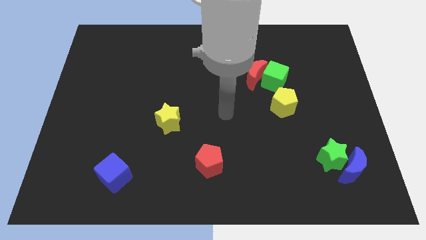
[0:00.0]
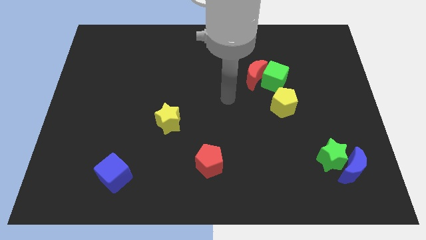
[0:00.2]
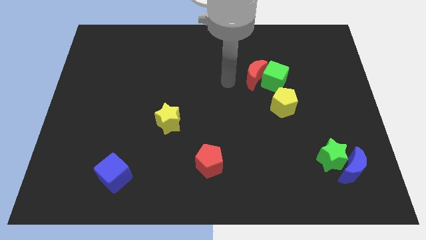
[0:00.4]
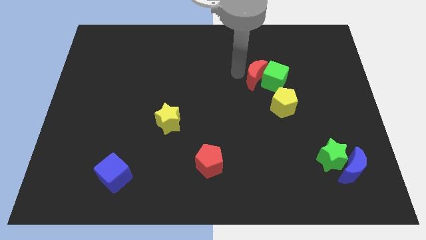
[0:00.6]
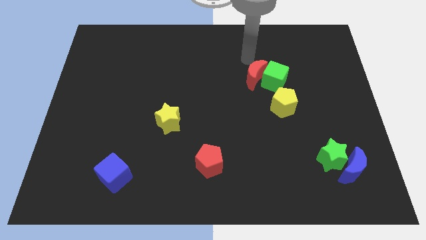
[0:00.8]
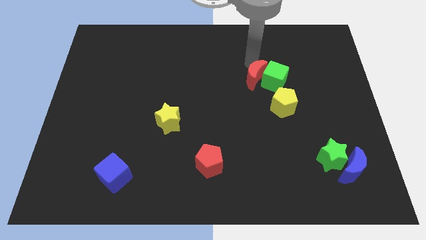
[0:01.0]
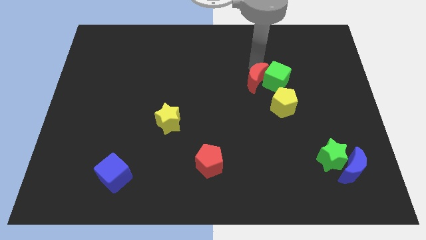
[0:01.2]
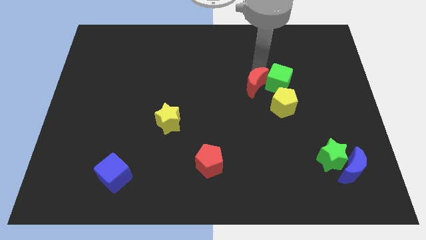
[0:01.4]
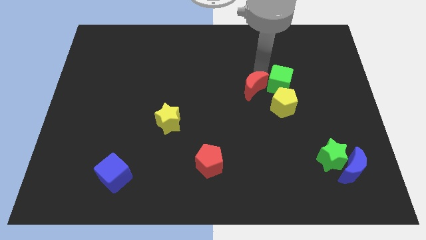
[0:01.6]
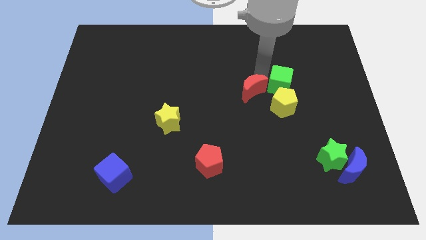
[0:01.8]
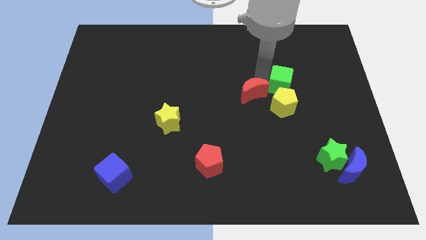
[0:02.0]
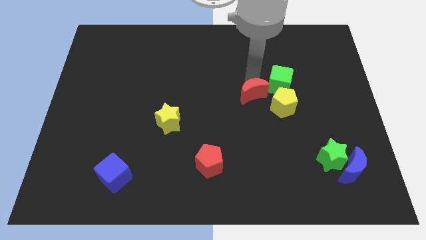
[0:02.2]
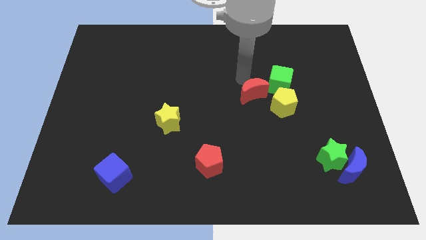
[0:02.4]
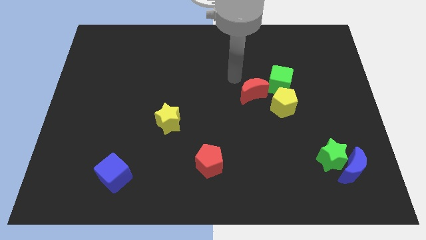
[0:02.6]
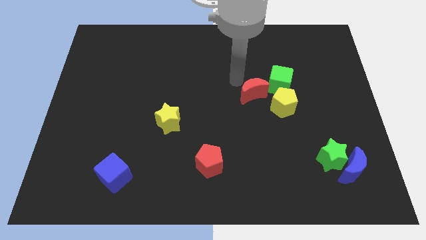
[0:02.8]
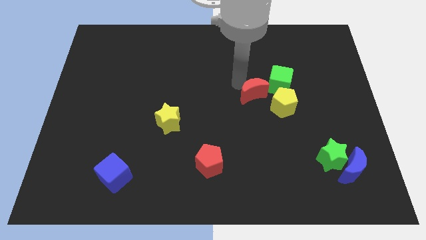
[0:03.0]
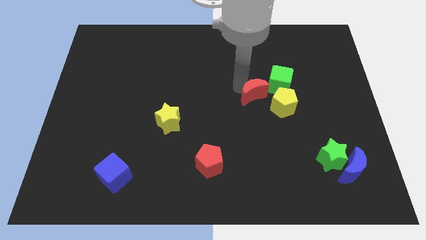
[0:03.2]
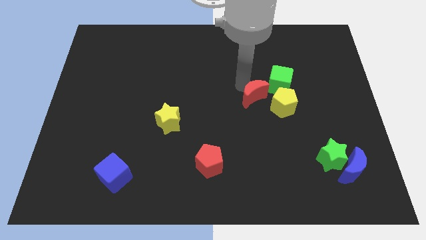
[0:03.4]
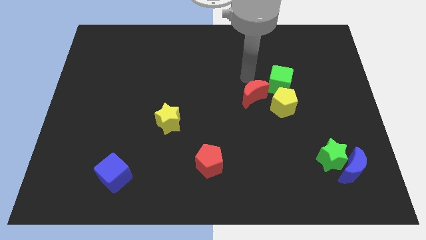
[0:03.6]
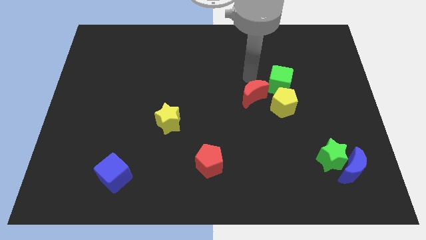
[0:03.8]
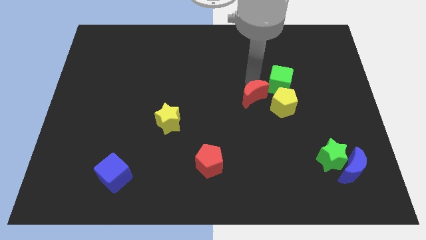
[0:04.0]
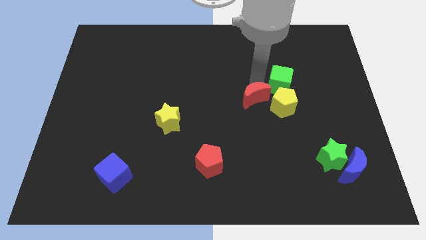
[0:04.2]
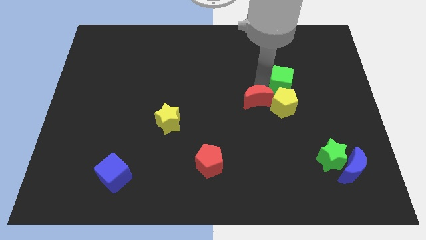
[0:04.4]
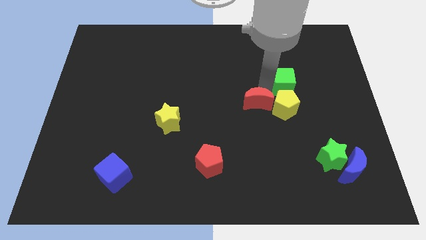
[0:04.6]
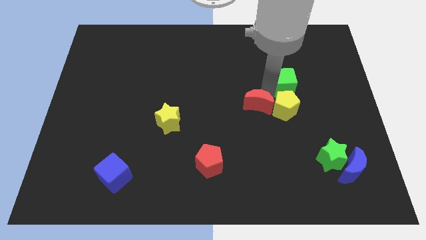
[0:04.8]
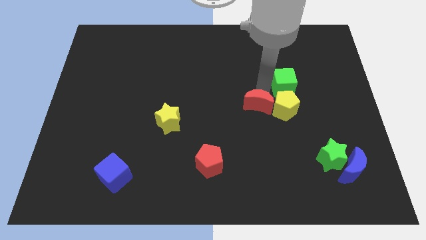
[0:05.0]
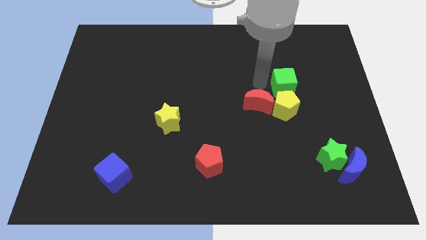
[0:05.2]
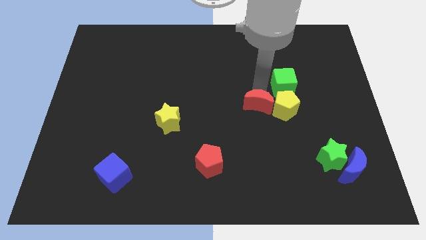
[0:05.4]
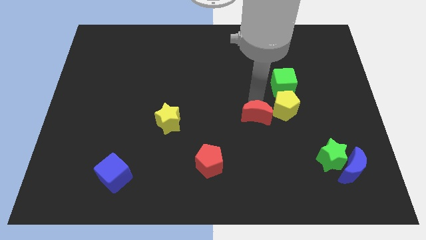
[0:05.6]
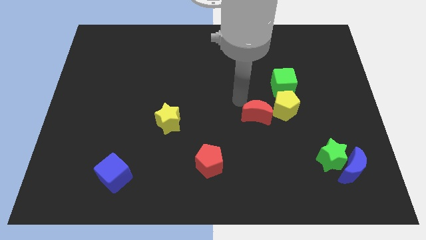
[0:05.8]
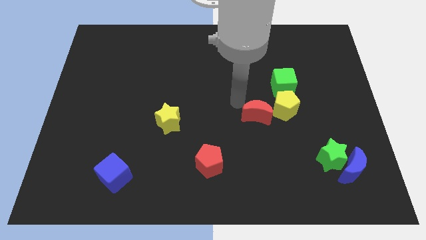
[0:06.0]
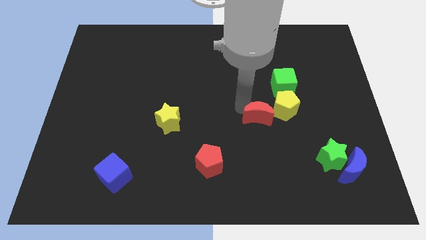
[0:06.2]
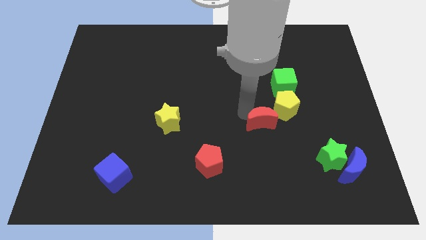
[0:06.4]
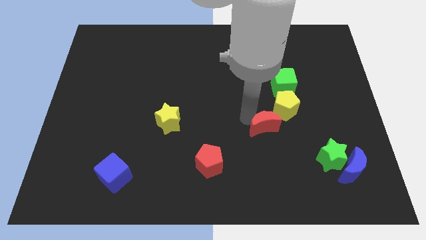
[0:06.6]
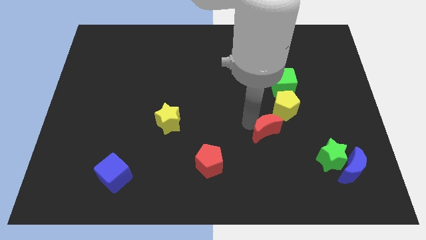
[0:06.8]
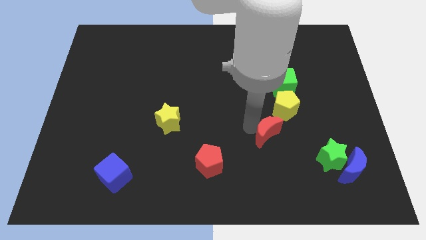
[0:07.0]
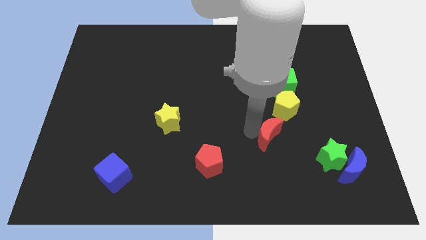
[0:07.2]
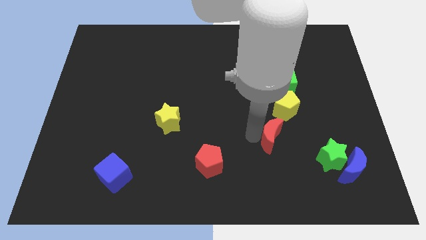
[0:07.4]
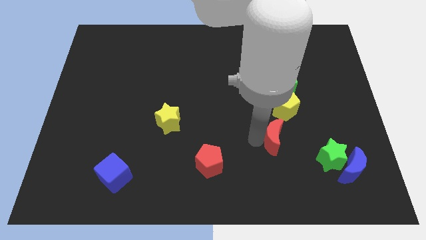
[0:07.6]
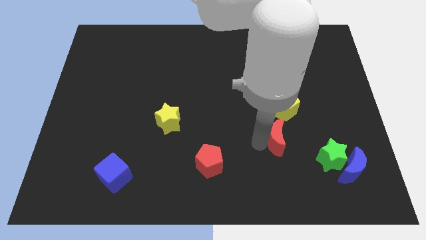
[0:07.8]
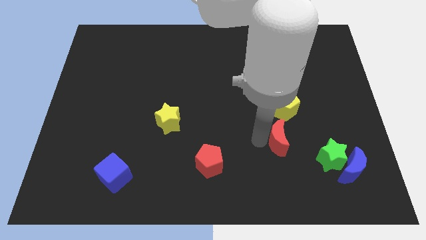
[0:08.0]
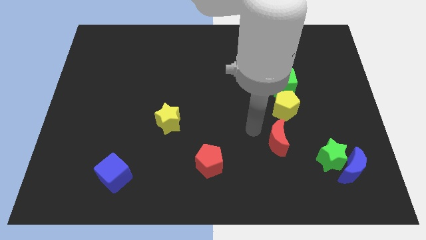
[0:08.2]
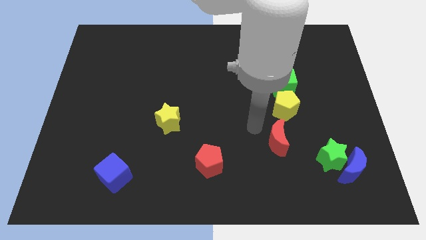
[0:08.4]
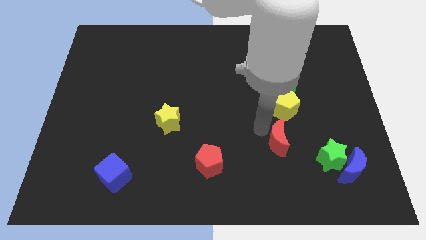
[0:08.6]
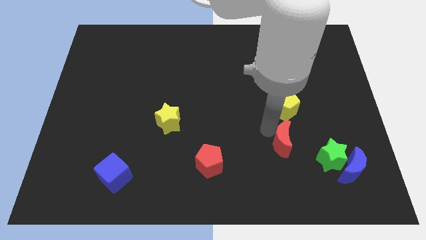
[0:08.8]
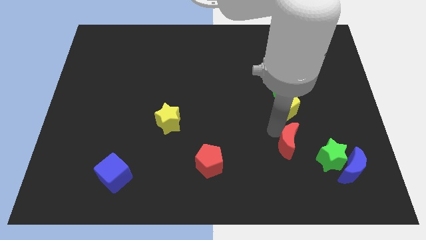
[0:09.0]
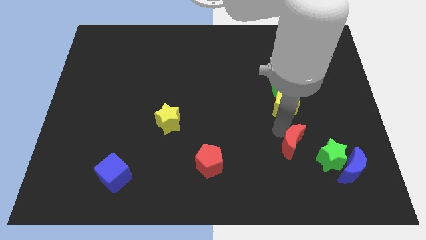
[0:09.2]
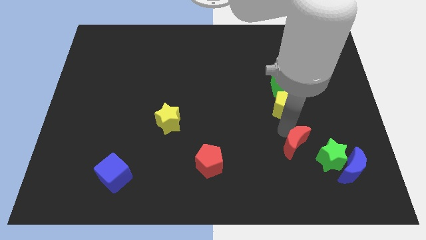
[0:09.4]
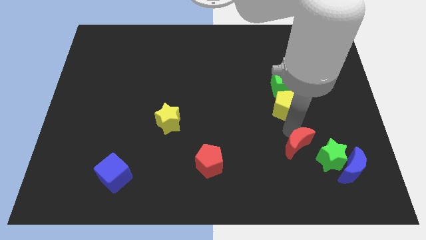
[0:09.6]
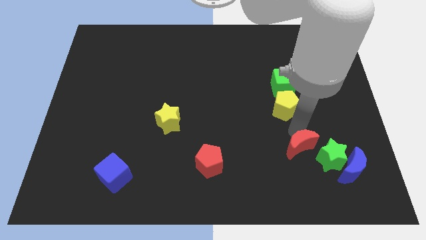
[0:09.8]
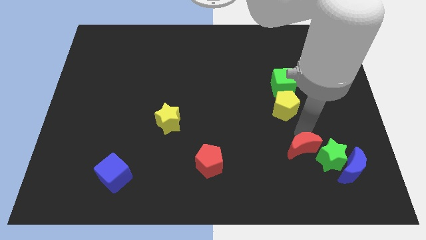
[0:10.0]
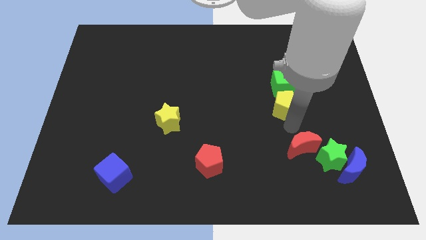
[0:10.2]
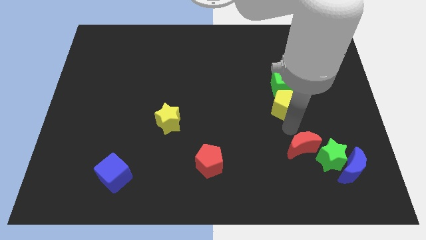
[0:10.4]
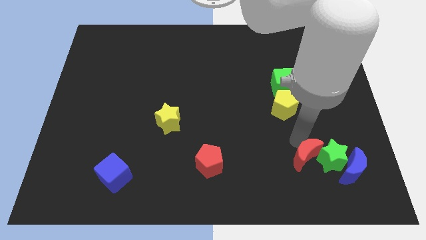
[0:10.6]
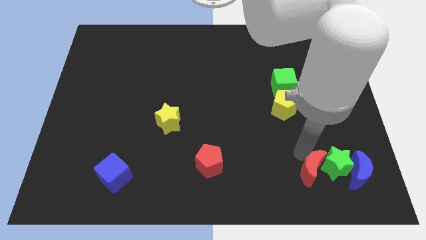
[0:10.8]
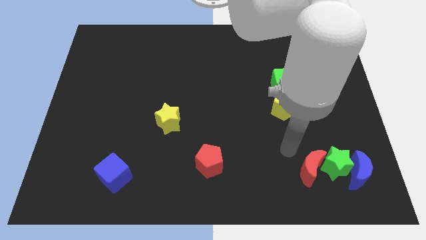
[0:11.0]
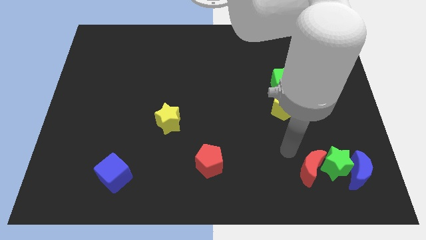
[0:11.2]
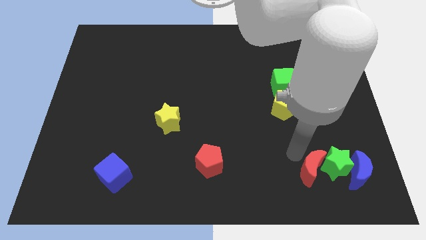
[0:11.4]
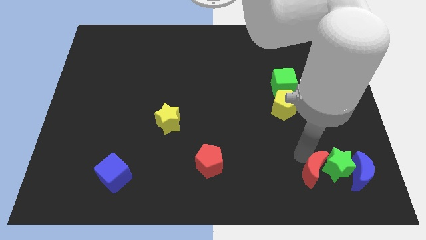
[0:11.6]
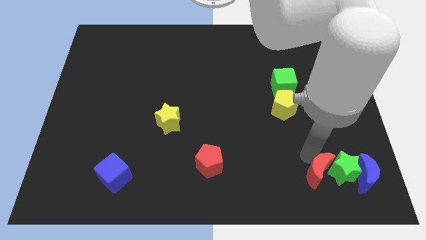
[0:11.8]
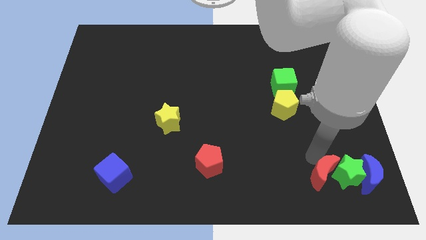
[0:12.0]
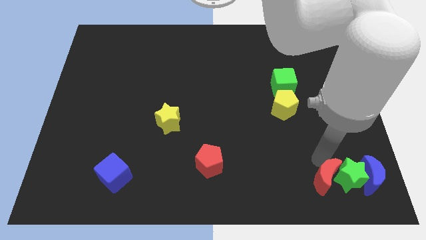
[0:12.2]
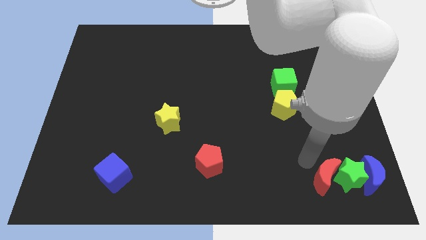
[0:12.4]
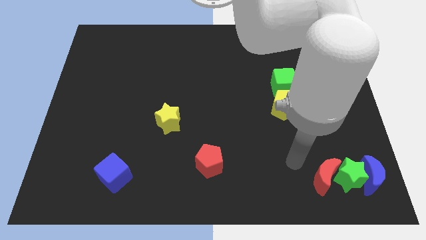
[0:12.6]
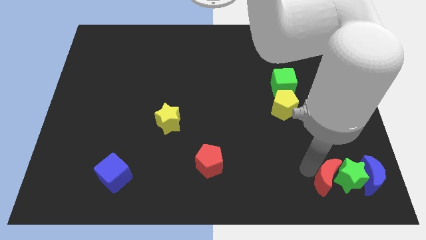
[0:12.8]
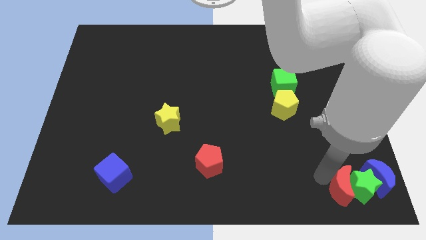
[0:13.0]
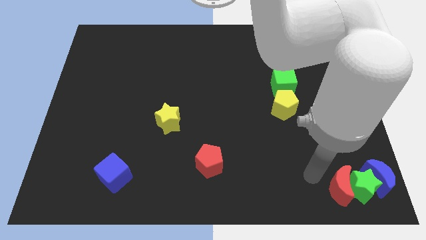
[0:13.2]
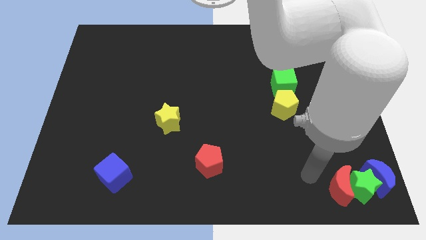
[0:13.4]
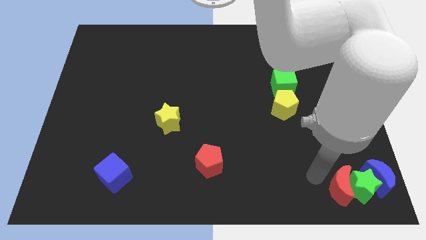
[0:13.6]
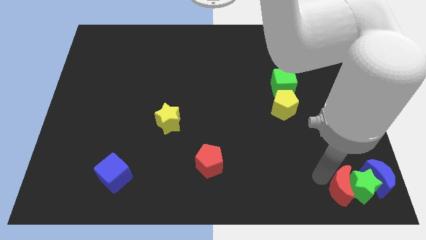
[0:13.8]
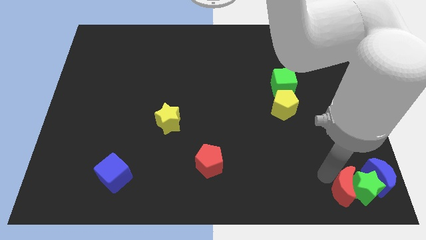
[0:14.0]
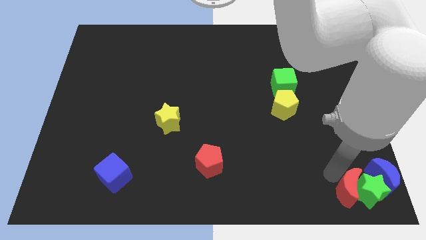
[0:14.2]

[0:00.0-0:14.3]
move the red moon to the bottom right corner
